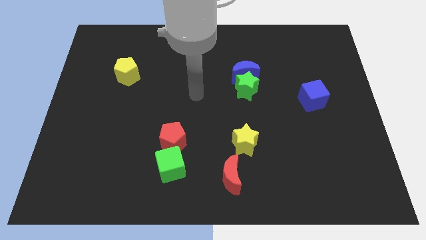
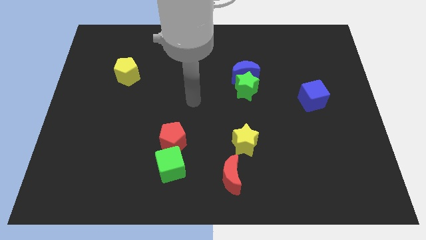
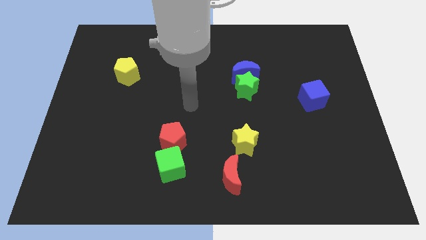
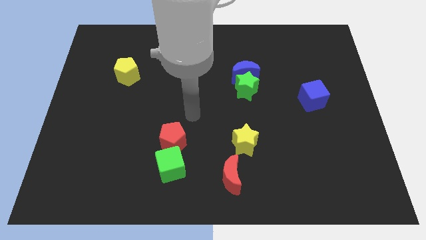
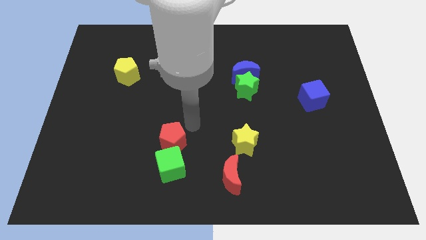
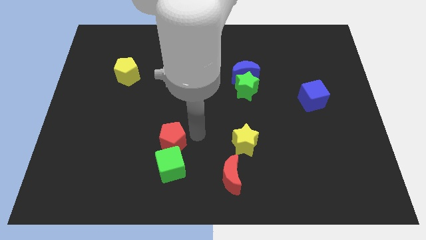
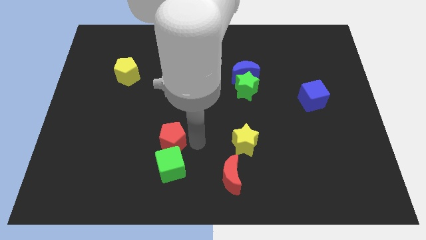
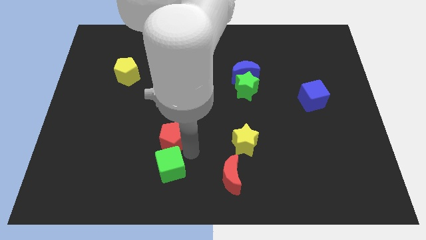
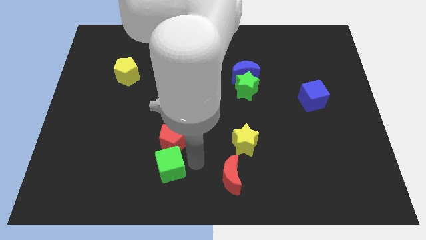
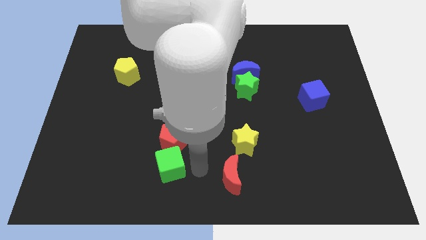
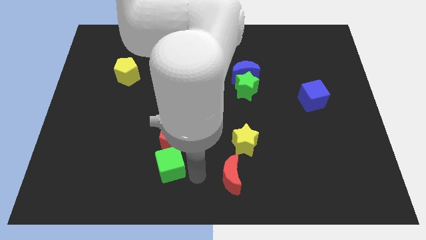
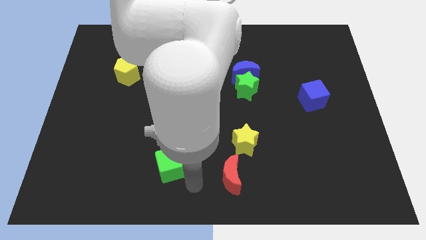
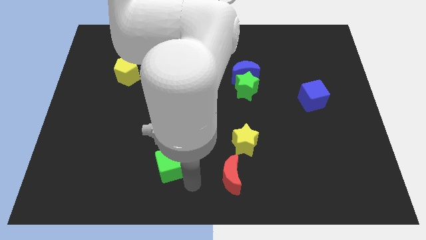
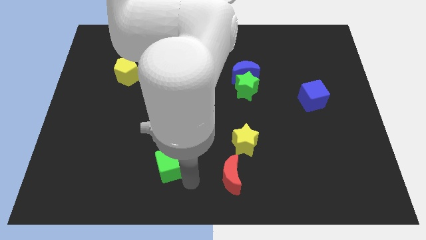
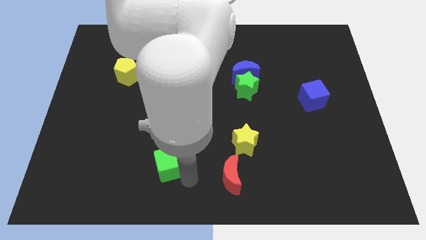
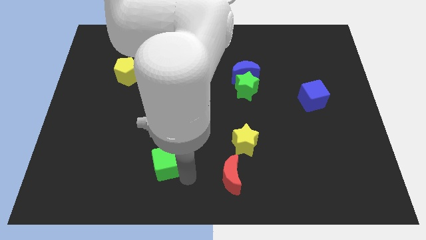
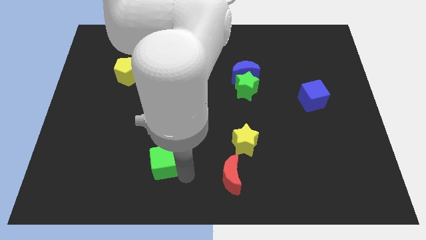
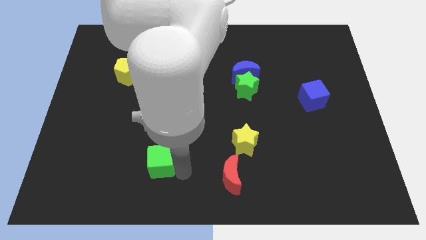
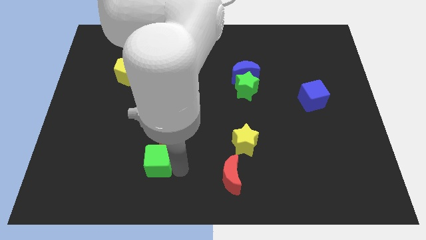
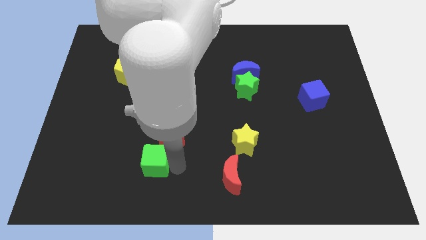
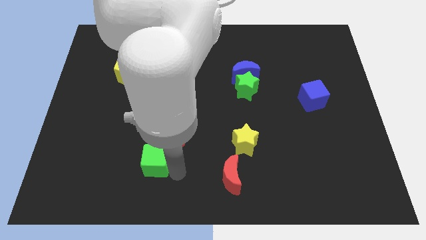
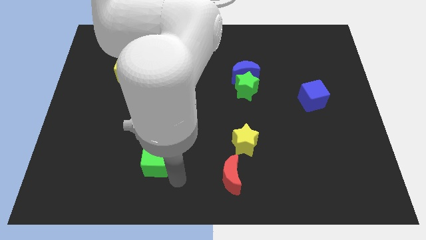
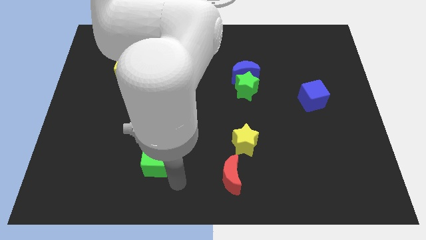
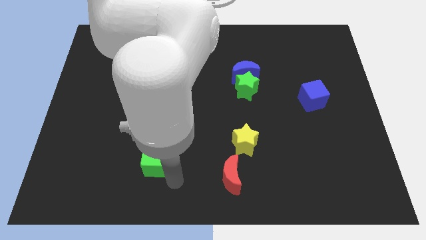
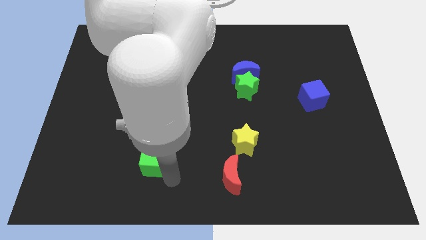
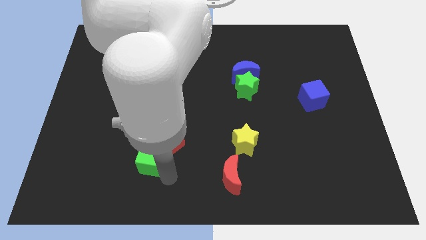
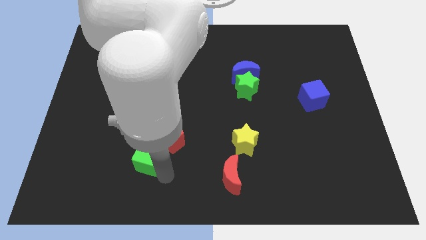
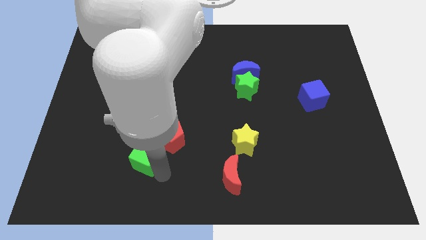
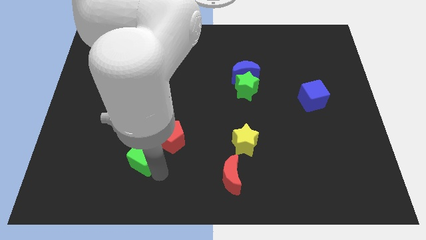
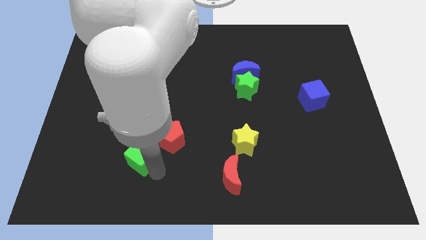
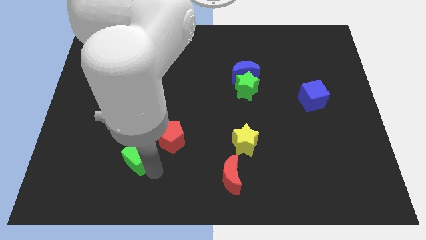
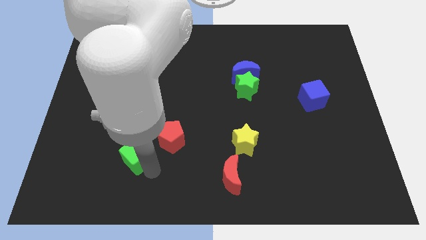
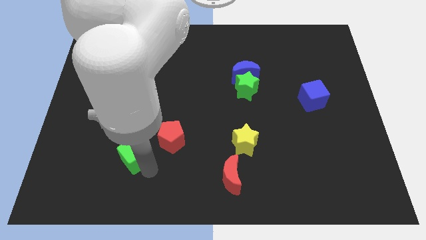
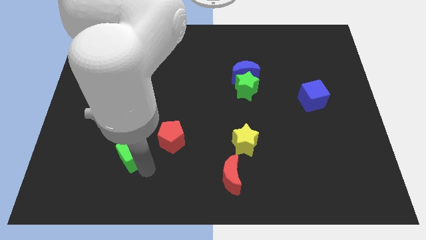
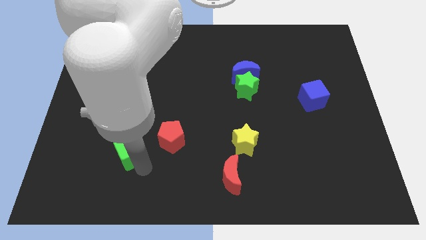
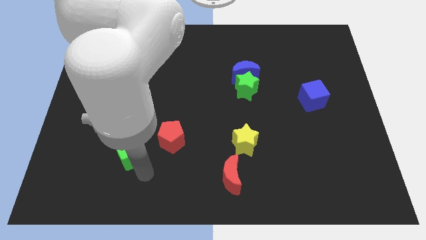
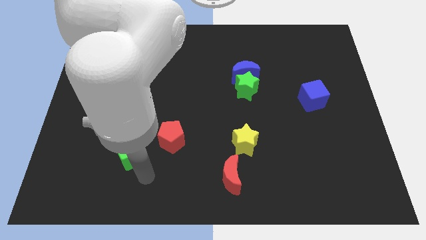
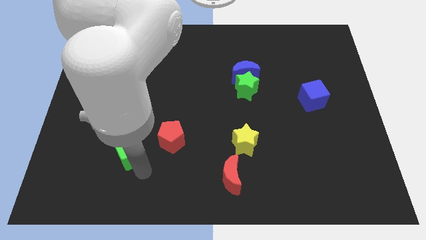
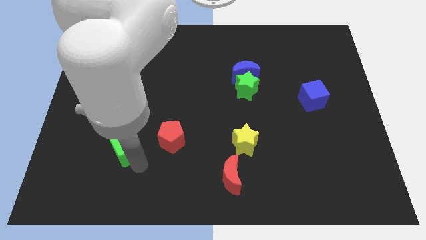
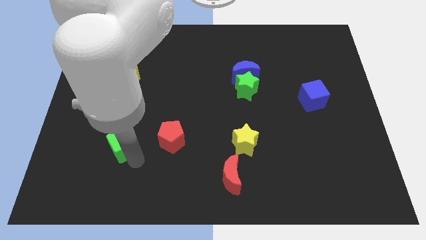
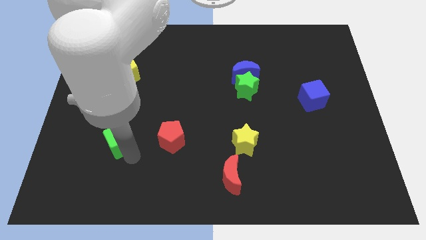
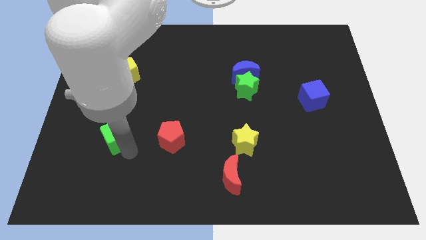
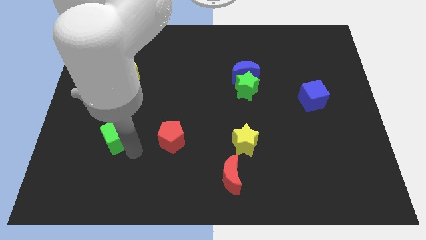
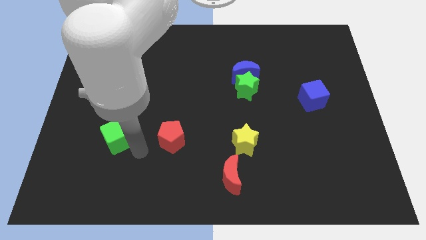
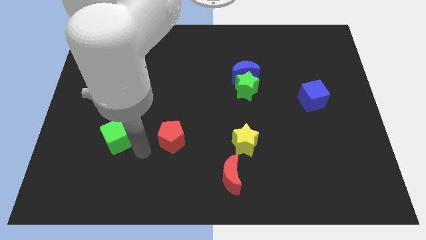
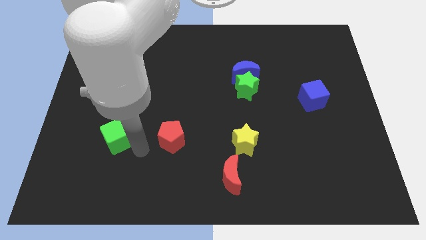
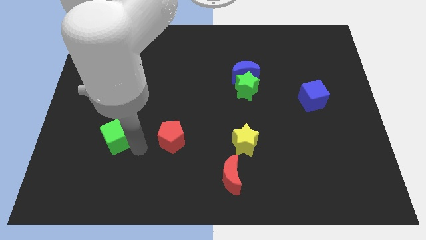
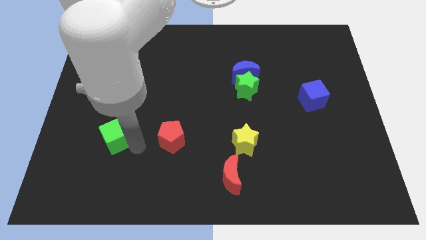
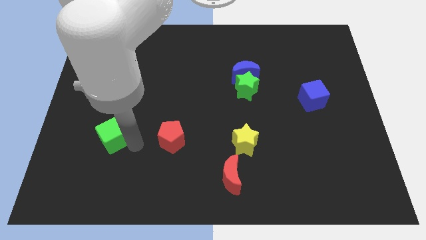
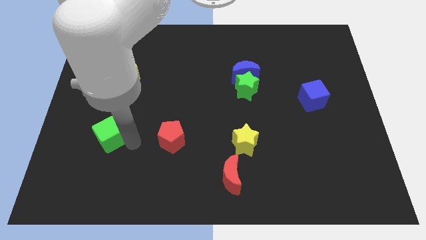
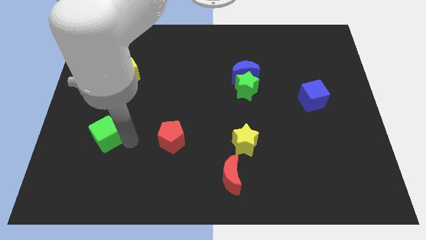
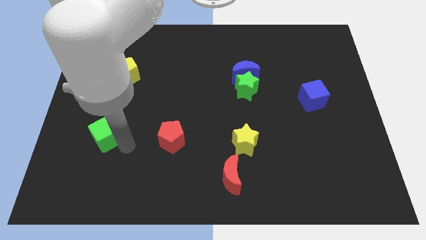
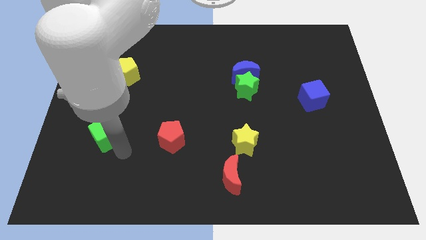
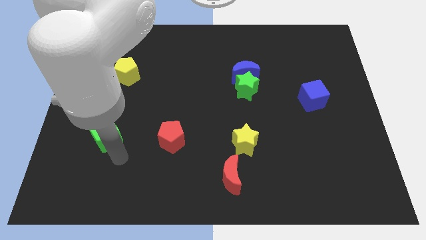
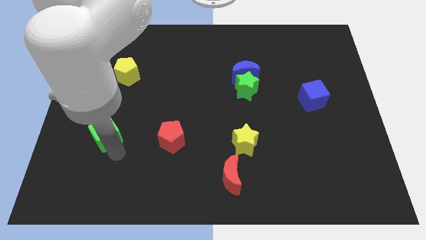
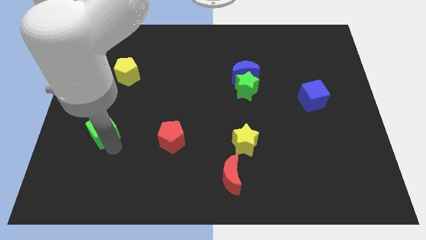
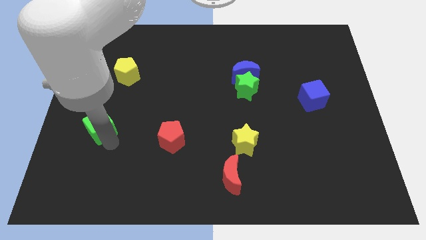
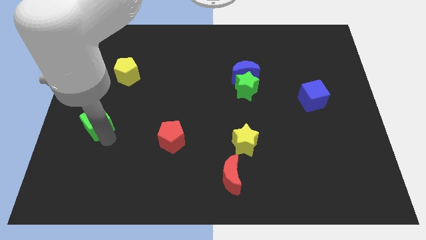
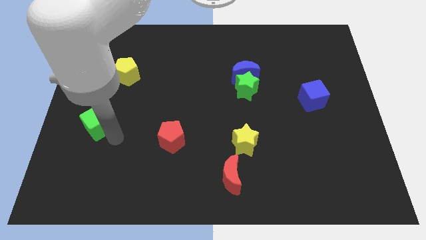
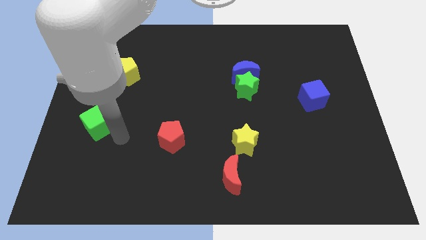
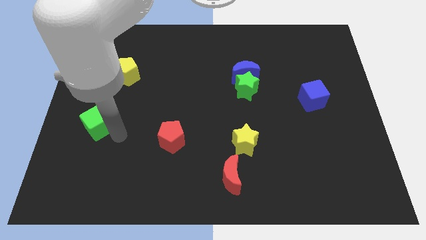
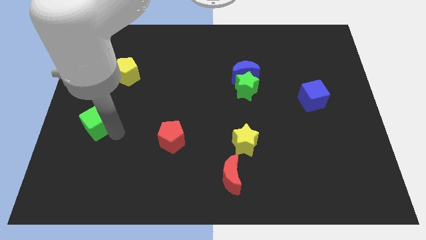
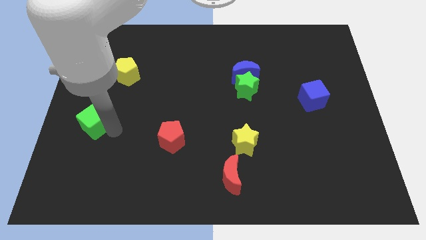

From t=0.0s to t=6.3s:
push the green cube to the left side
